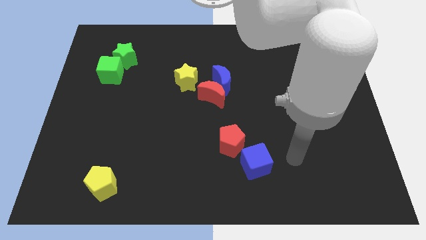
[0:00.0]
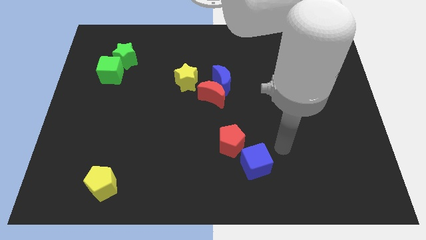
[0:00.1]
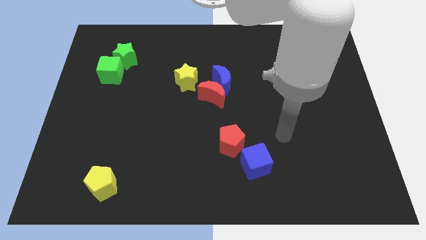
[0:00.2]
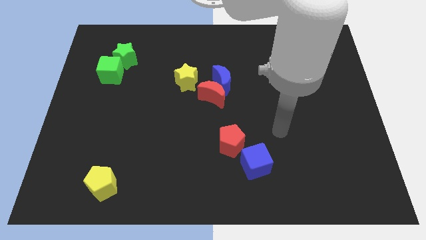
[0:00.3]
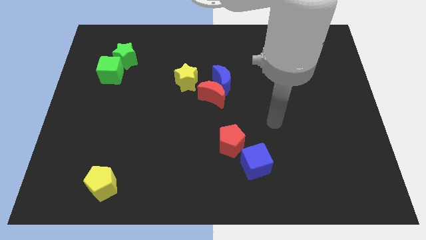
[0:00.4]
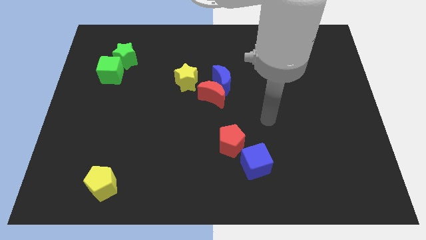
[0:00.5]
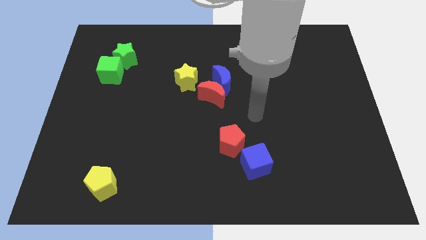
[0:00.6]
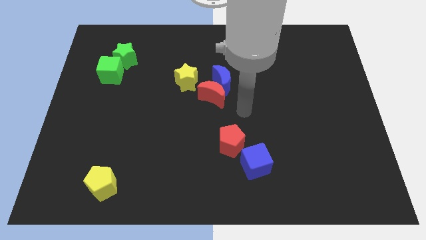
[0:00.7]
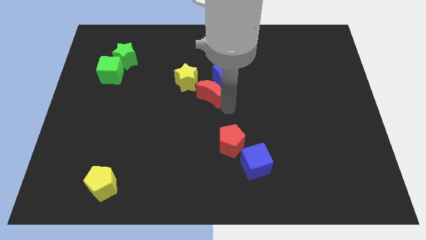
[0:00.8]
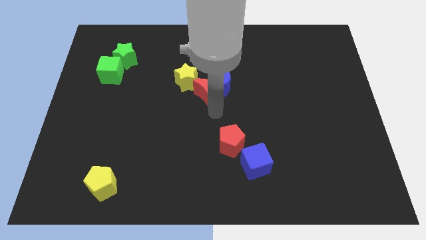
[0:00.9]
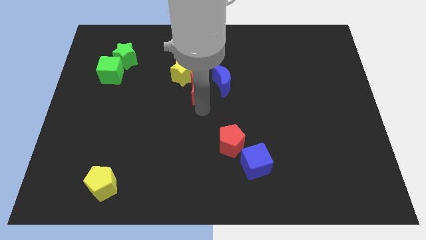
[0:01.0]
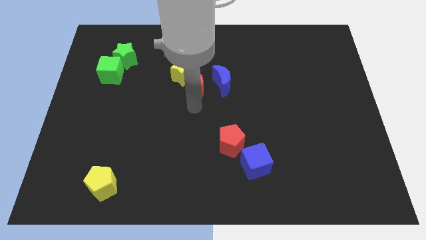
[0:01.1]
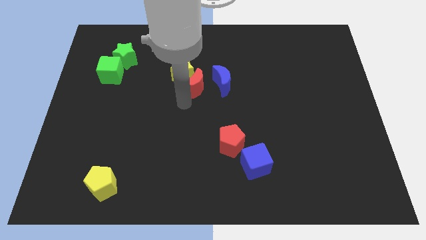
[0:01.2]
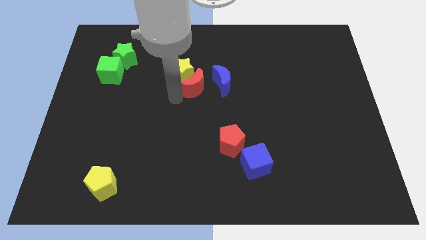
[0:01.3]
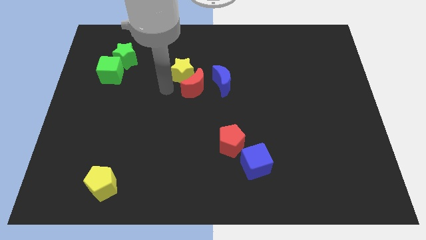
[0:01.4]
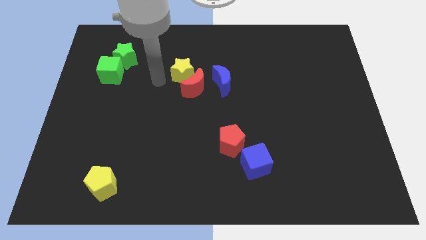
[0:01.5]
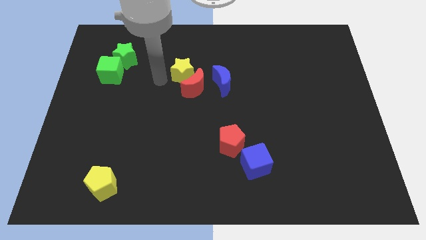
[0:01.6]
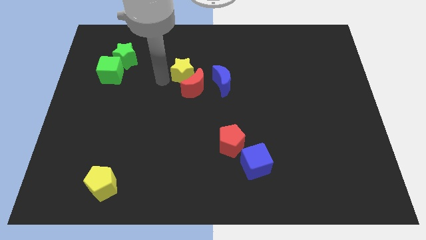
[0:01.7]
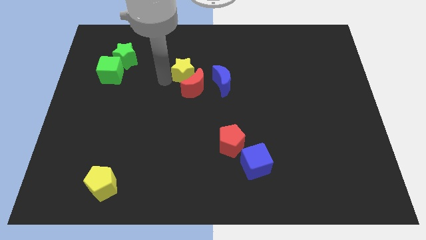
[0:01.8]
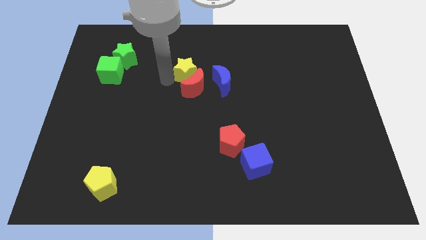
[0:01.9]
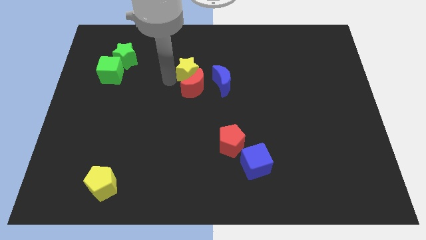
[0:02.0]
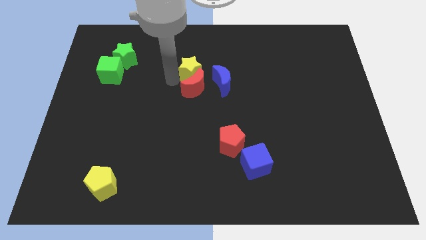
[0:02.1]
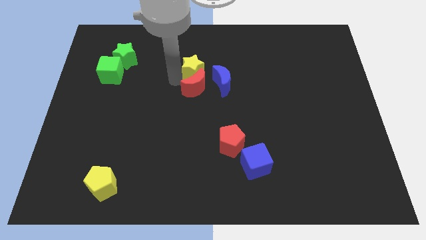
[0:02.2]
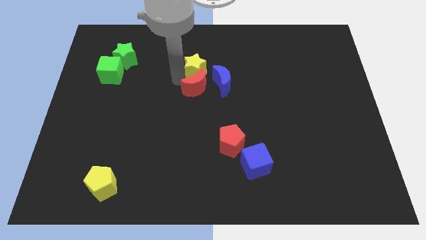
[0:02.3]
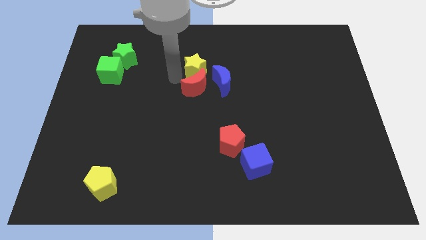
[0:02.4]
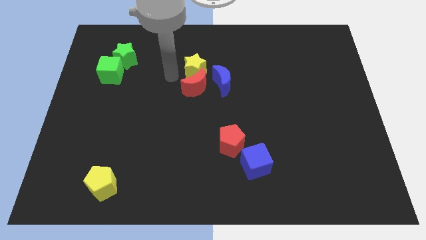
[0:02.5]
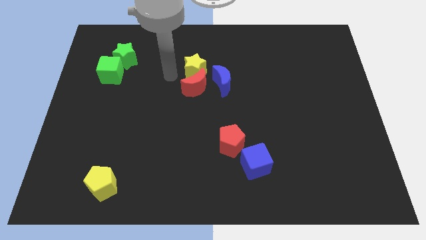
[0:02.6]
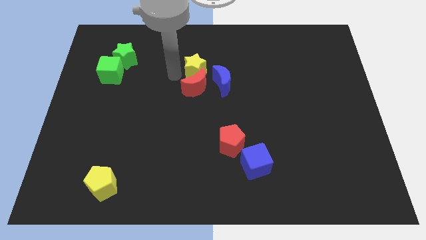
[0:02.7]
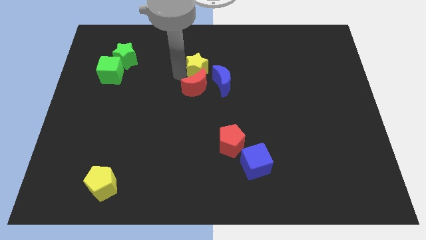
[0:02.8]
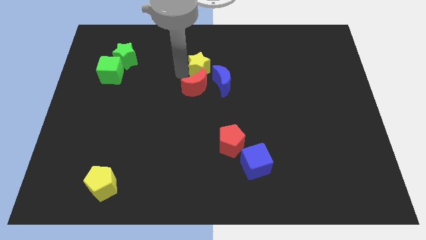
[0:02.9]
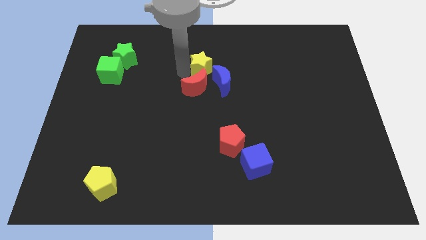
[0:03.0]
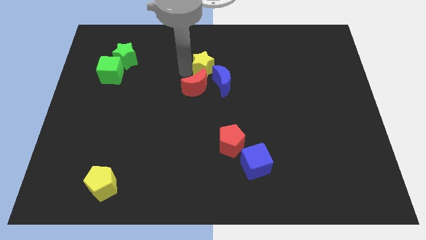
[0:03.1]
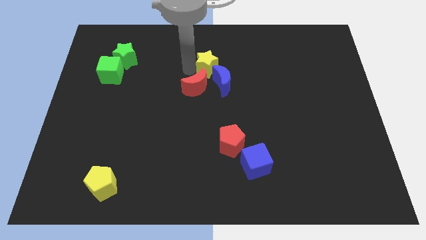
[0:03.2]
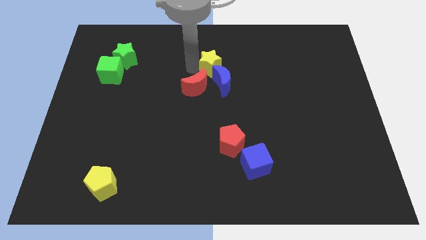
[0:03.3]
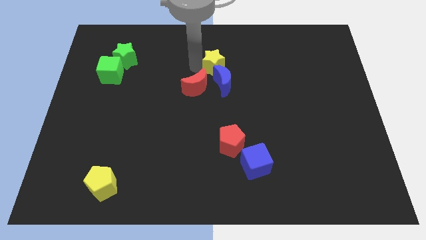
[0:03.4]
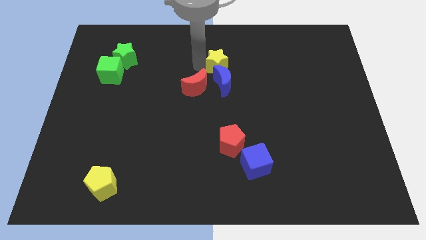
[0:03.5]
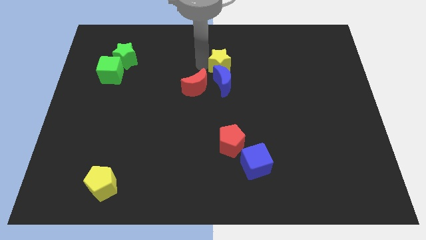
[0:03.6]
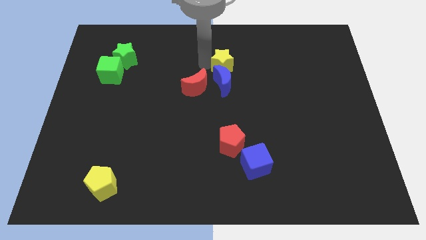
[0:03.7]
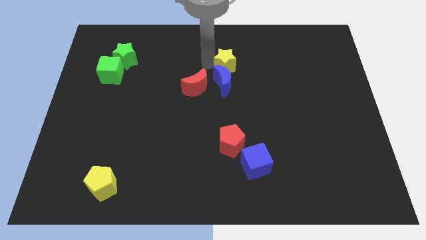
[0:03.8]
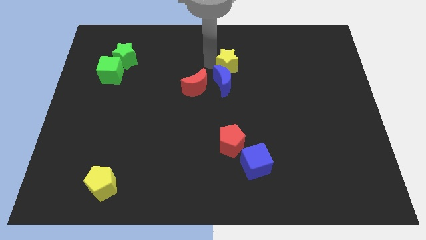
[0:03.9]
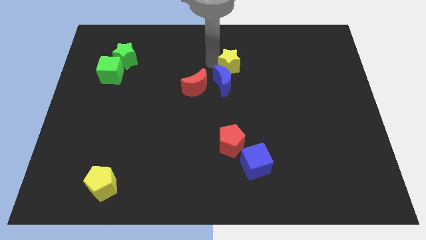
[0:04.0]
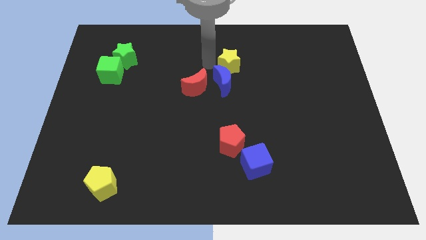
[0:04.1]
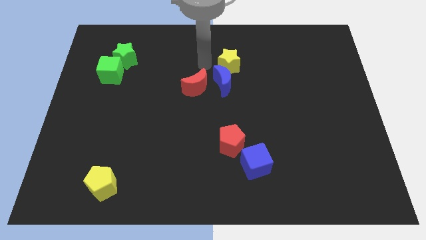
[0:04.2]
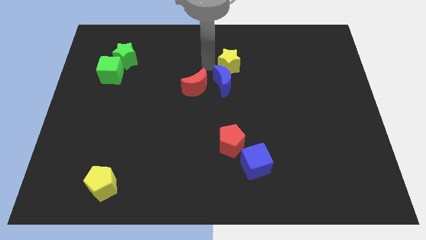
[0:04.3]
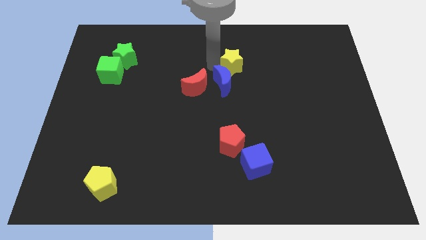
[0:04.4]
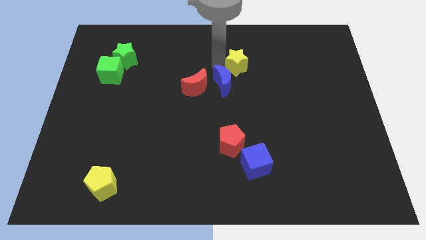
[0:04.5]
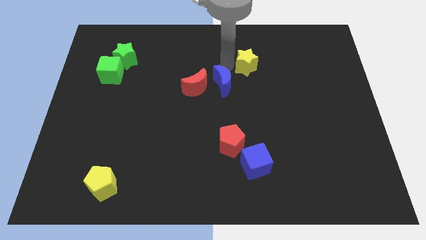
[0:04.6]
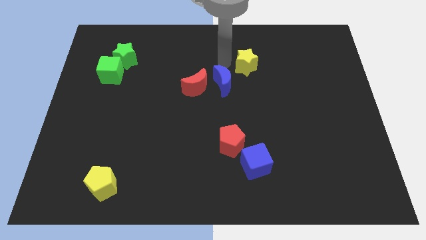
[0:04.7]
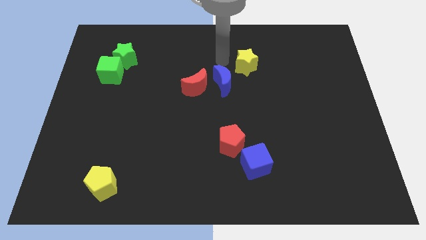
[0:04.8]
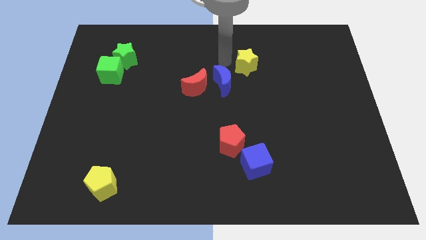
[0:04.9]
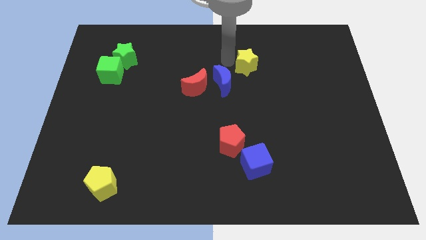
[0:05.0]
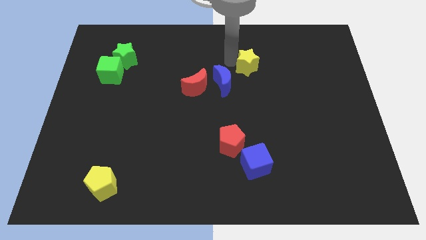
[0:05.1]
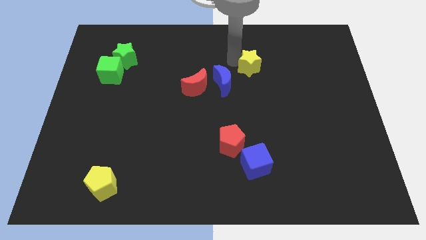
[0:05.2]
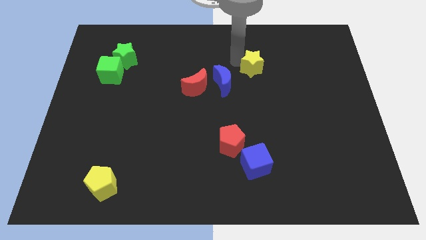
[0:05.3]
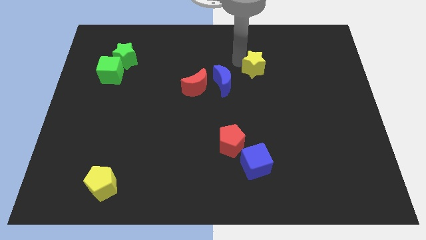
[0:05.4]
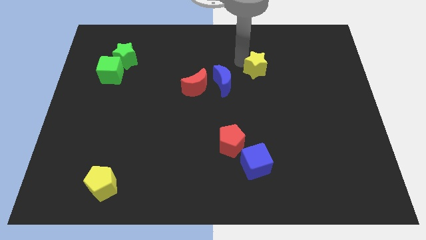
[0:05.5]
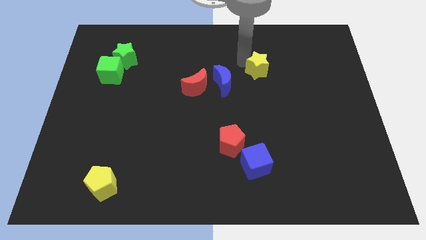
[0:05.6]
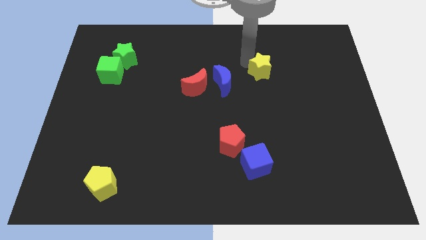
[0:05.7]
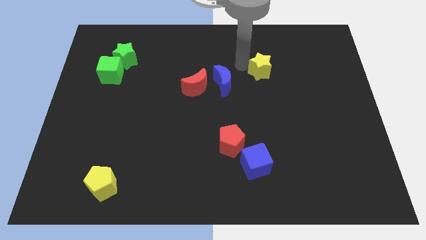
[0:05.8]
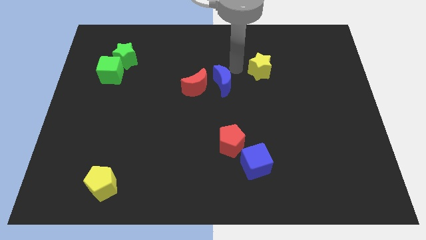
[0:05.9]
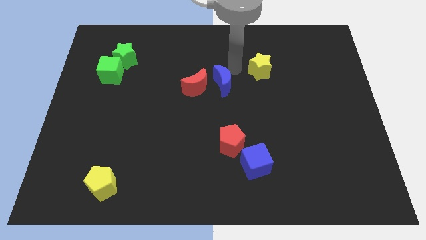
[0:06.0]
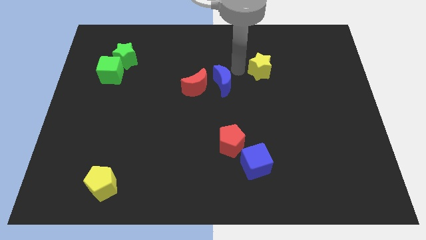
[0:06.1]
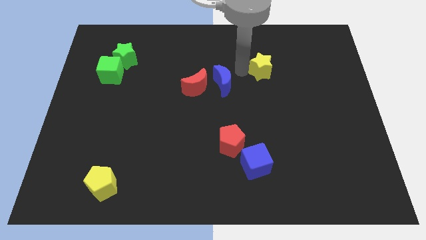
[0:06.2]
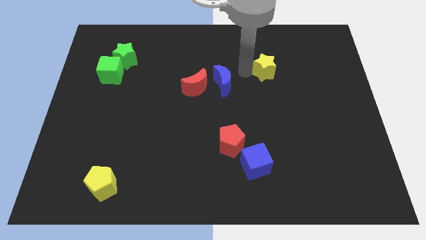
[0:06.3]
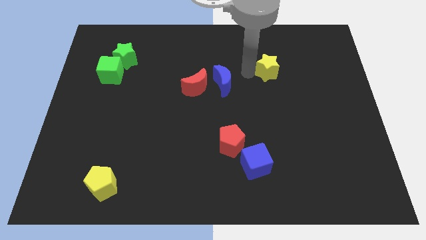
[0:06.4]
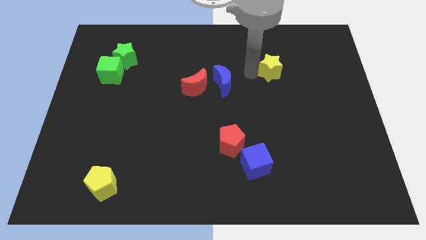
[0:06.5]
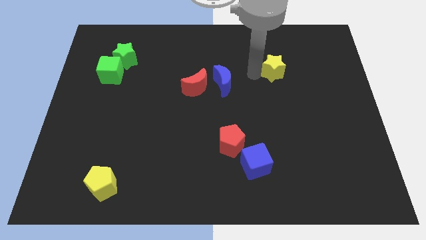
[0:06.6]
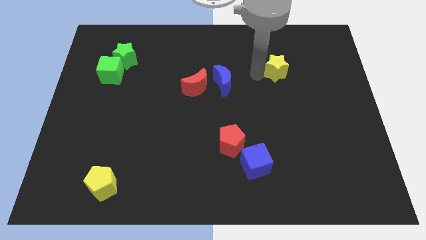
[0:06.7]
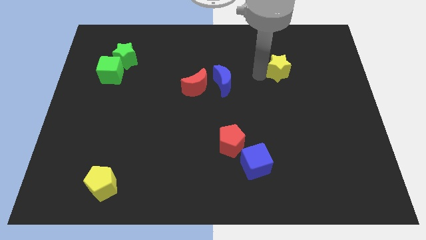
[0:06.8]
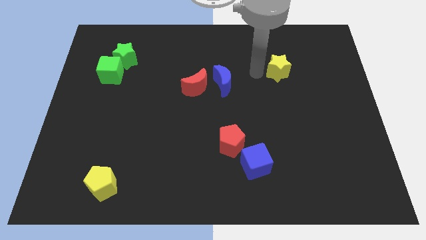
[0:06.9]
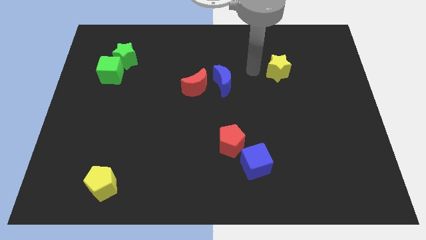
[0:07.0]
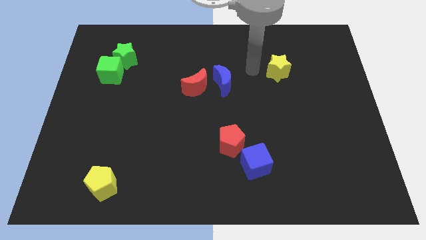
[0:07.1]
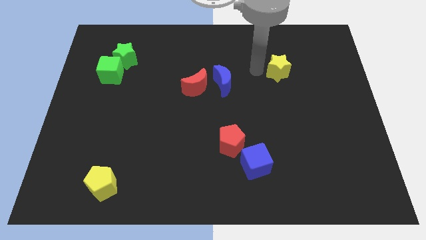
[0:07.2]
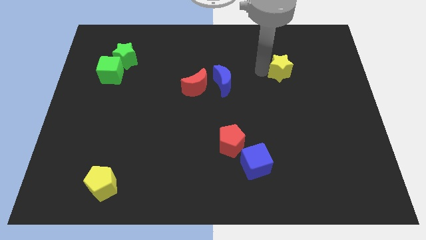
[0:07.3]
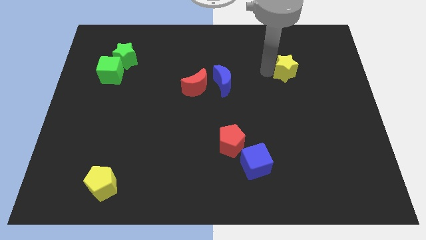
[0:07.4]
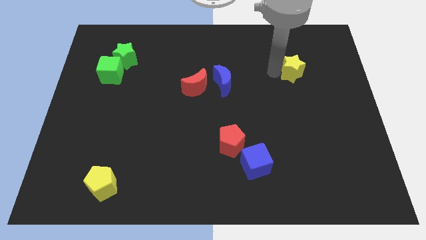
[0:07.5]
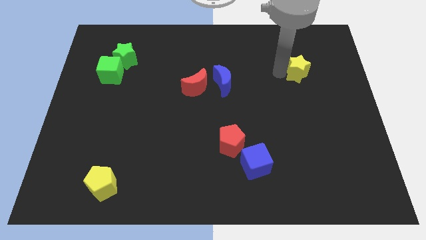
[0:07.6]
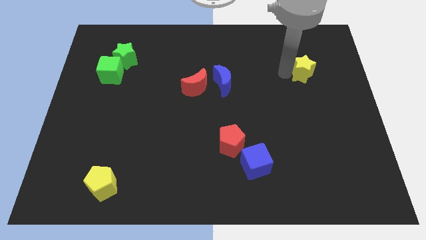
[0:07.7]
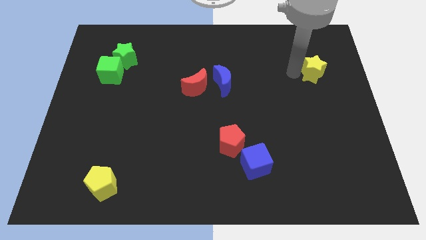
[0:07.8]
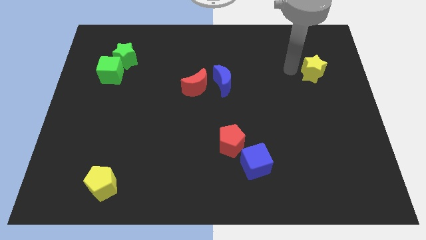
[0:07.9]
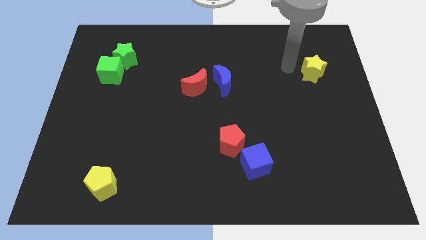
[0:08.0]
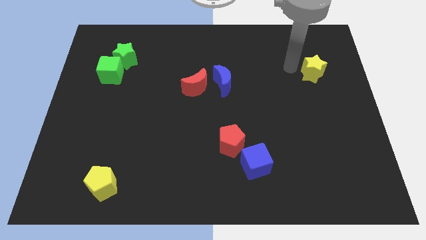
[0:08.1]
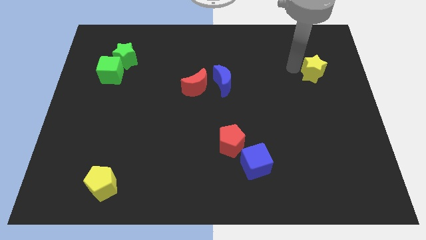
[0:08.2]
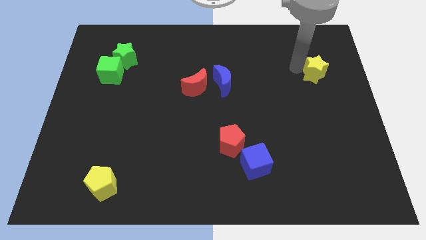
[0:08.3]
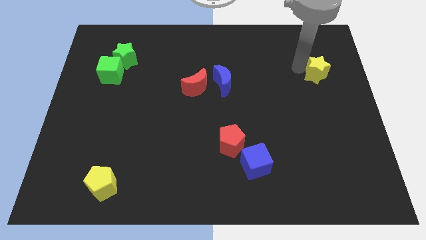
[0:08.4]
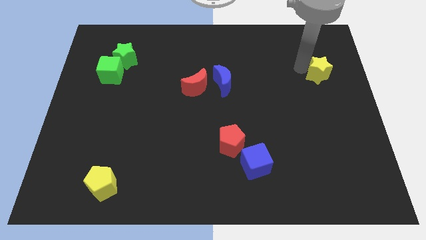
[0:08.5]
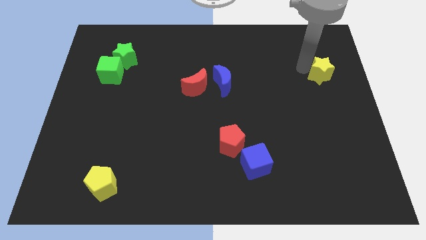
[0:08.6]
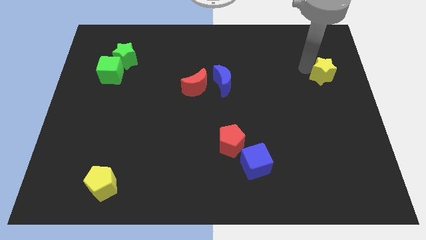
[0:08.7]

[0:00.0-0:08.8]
move the yellow star to the right side
